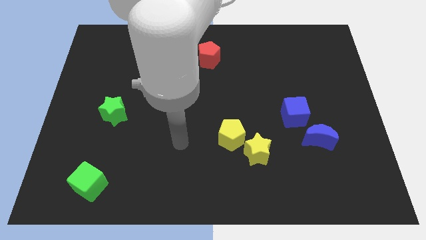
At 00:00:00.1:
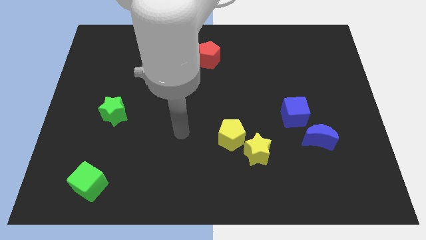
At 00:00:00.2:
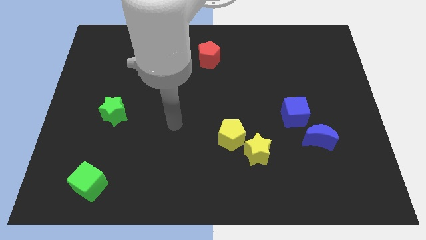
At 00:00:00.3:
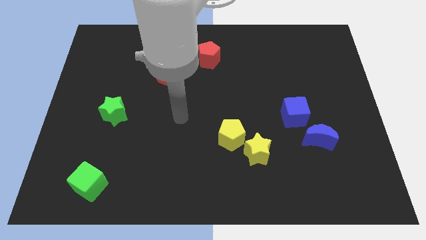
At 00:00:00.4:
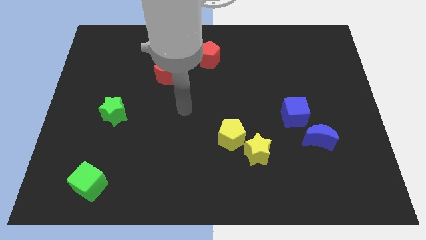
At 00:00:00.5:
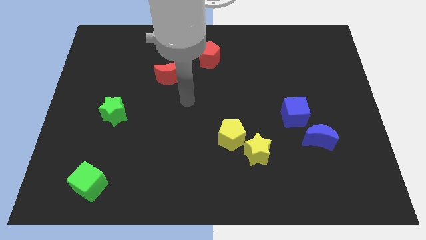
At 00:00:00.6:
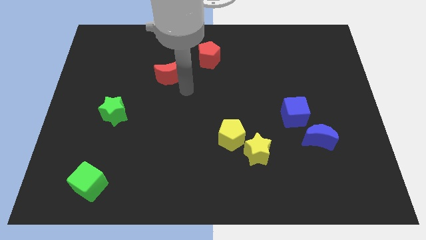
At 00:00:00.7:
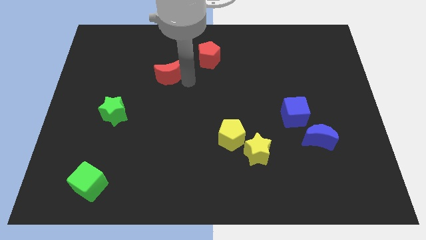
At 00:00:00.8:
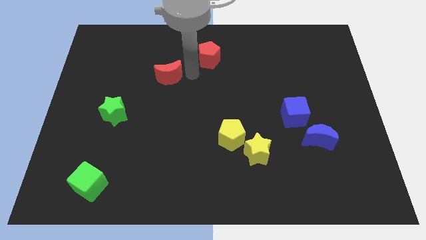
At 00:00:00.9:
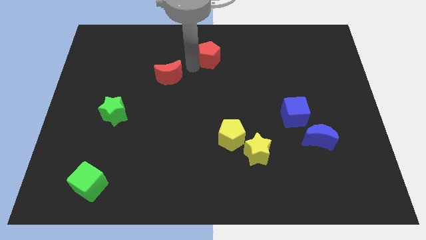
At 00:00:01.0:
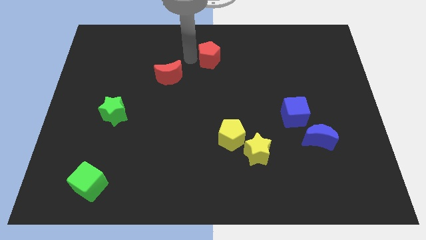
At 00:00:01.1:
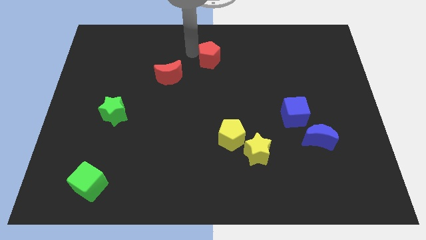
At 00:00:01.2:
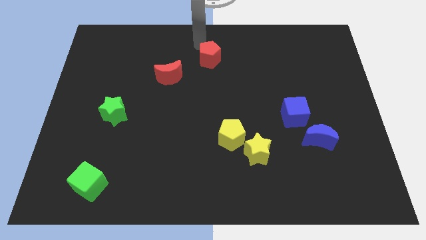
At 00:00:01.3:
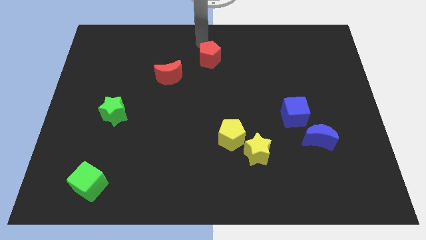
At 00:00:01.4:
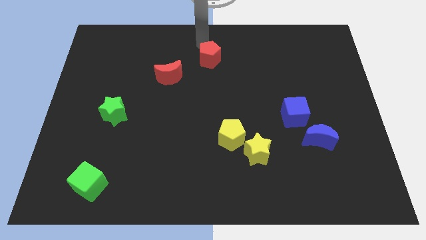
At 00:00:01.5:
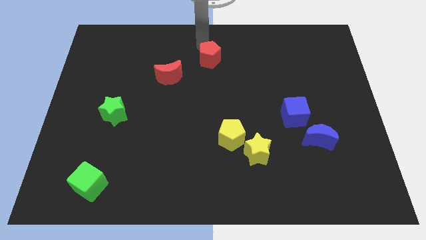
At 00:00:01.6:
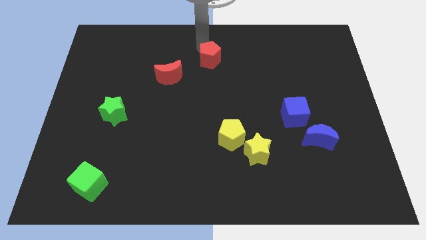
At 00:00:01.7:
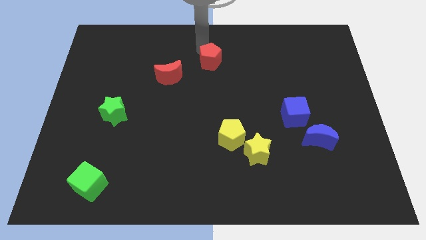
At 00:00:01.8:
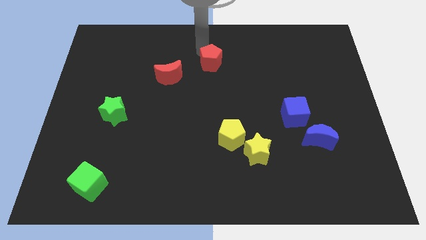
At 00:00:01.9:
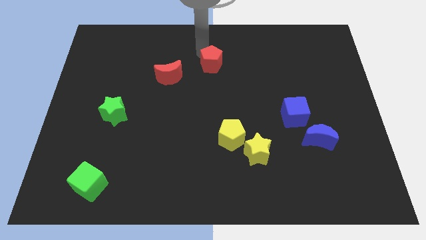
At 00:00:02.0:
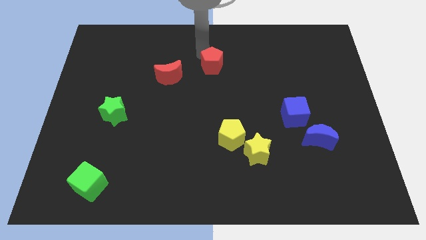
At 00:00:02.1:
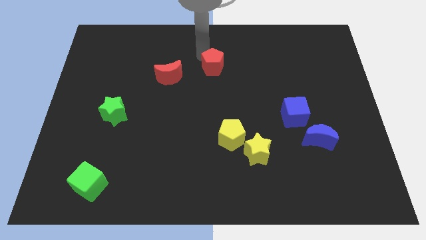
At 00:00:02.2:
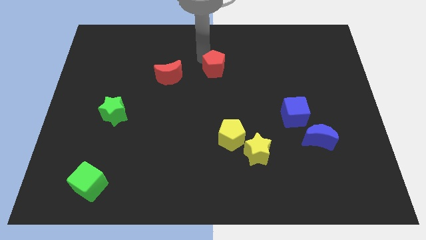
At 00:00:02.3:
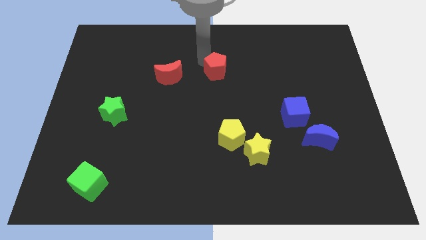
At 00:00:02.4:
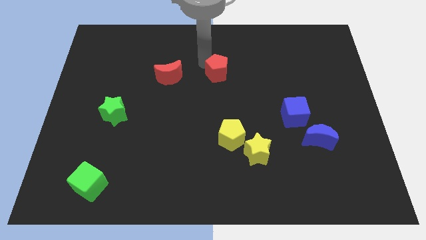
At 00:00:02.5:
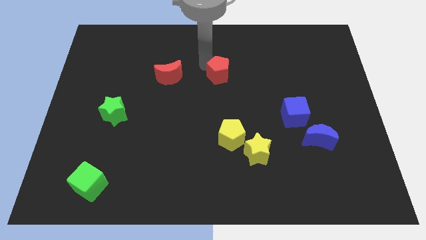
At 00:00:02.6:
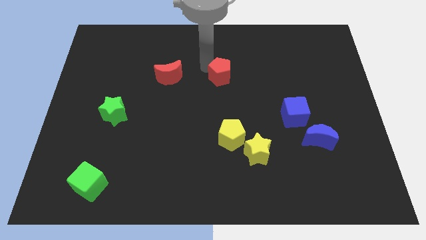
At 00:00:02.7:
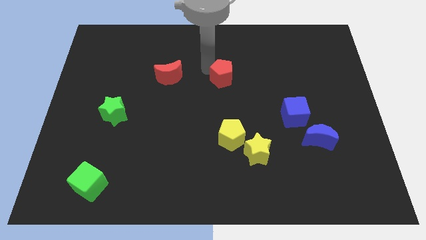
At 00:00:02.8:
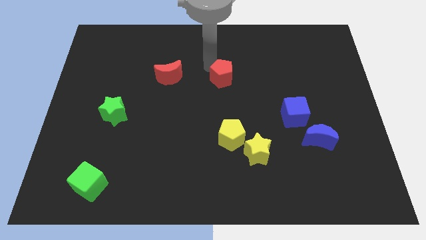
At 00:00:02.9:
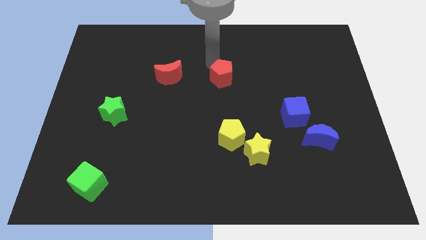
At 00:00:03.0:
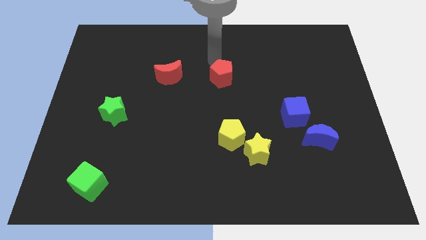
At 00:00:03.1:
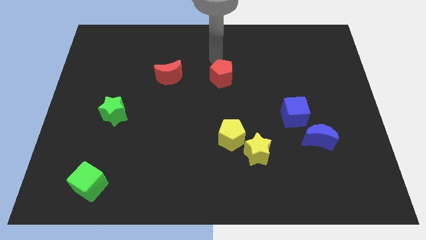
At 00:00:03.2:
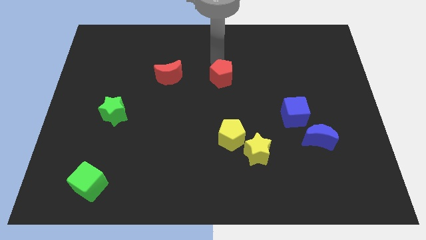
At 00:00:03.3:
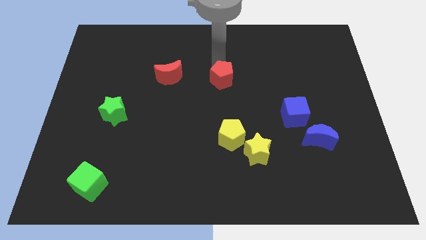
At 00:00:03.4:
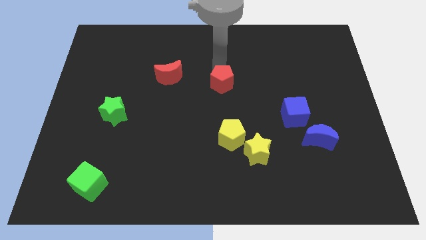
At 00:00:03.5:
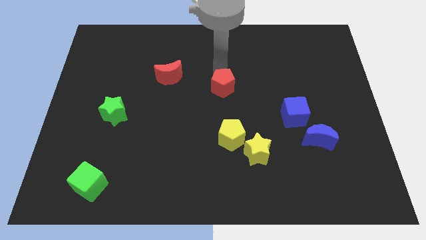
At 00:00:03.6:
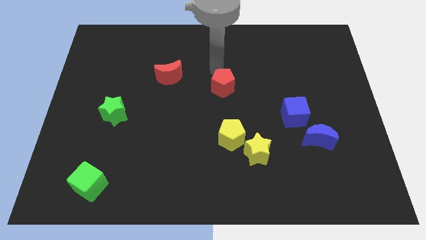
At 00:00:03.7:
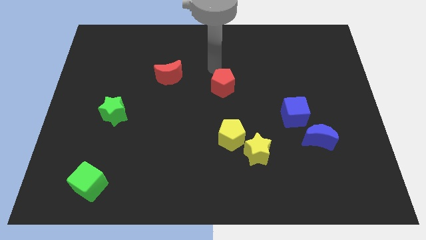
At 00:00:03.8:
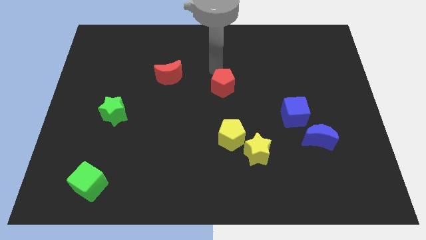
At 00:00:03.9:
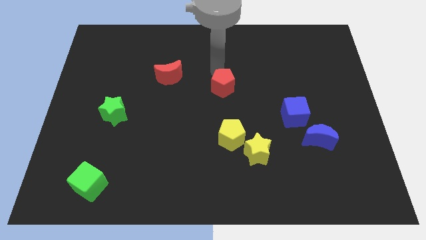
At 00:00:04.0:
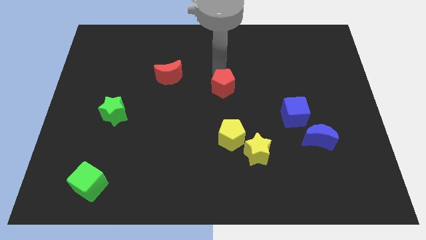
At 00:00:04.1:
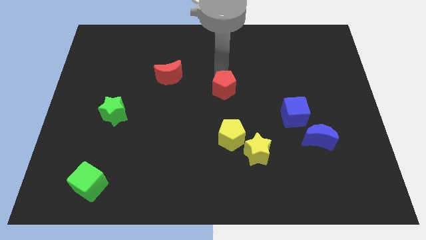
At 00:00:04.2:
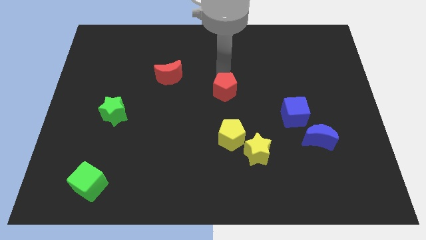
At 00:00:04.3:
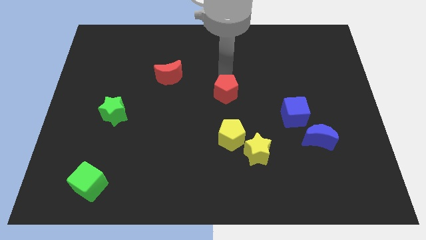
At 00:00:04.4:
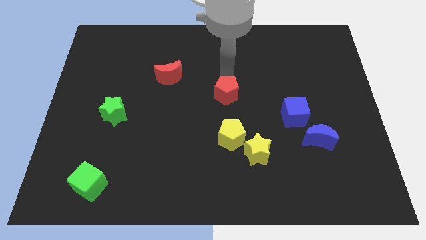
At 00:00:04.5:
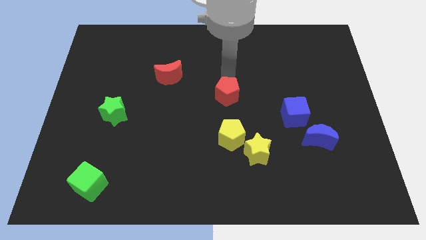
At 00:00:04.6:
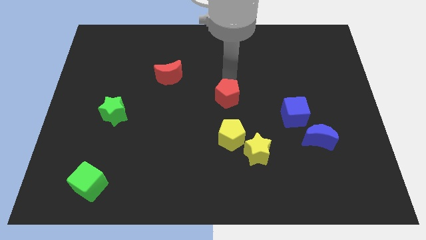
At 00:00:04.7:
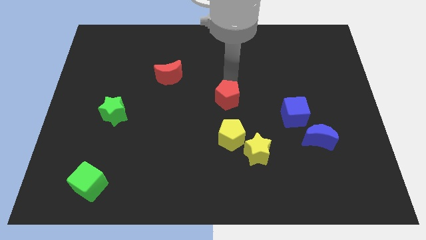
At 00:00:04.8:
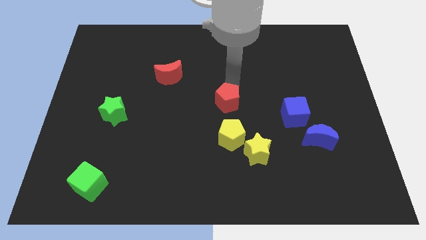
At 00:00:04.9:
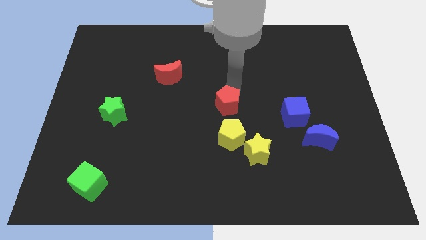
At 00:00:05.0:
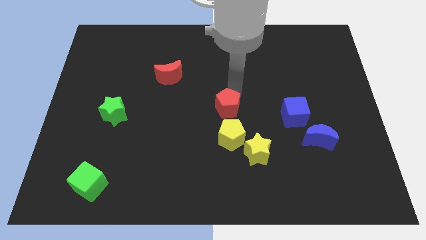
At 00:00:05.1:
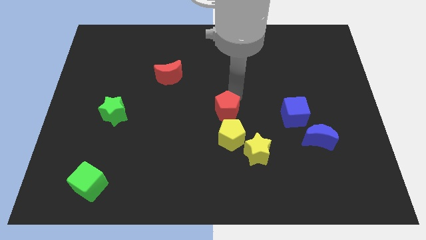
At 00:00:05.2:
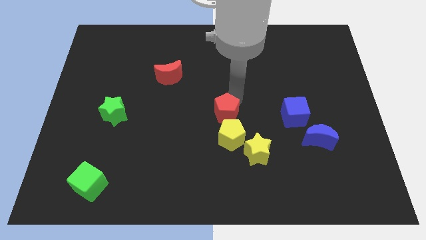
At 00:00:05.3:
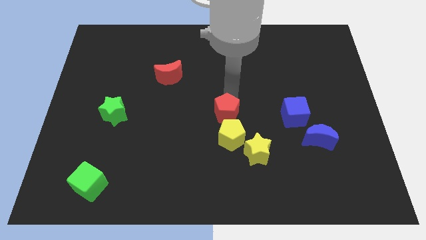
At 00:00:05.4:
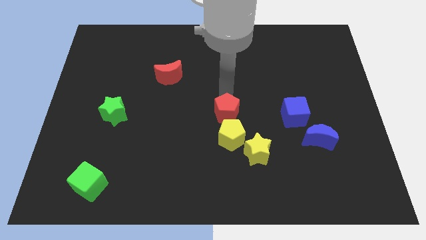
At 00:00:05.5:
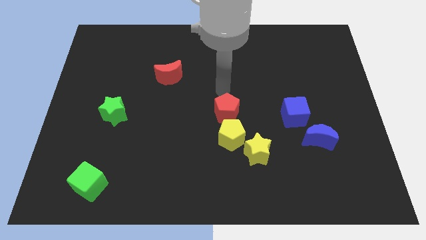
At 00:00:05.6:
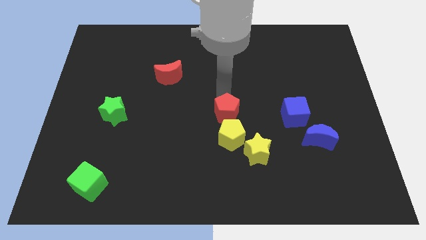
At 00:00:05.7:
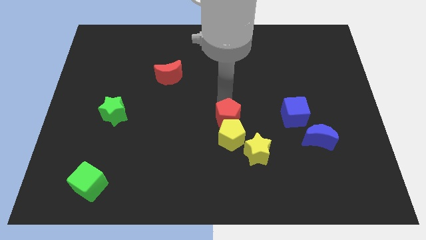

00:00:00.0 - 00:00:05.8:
push the red pentagon next to the yellow pentagon
